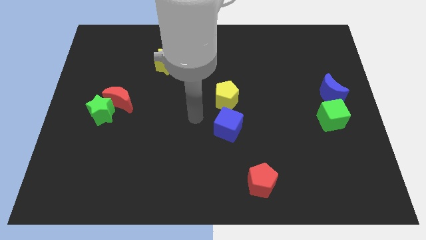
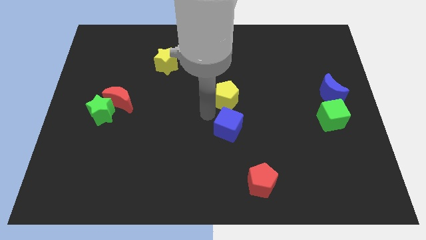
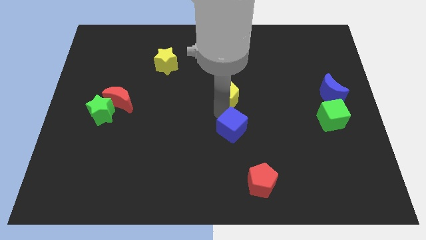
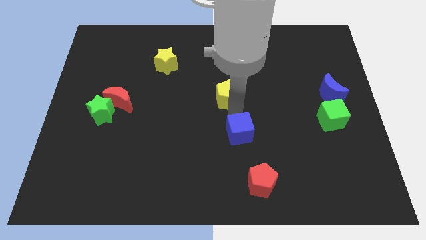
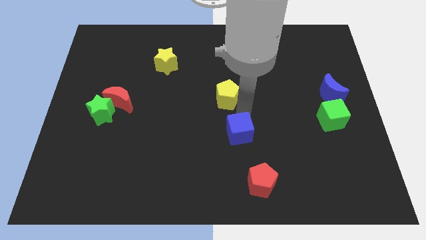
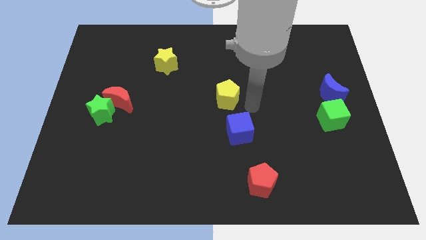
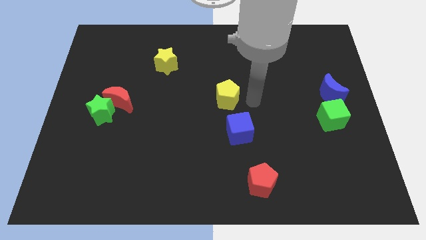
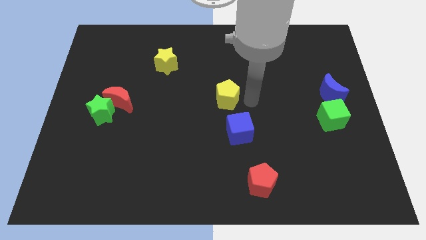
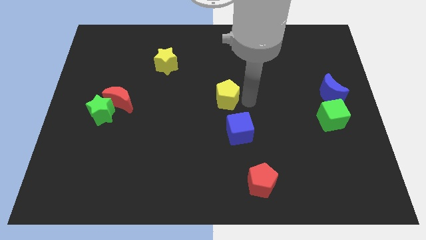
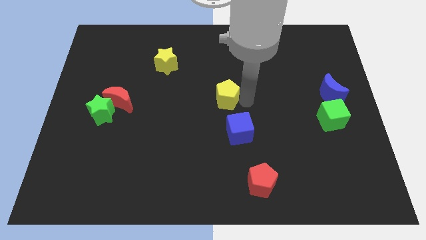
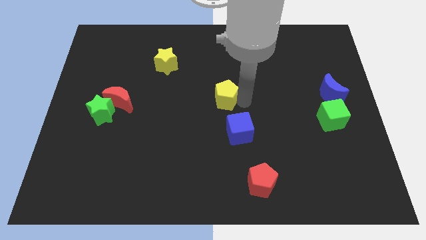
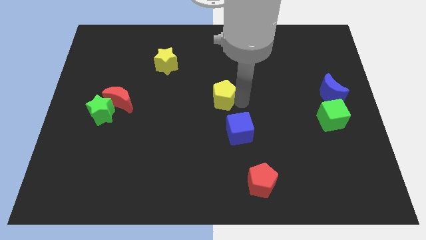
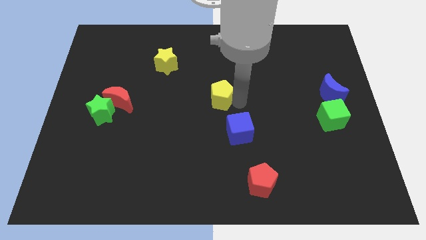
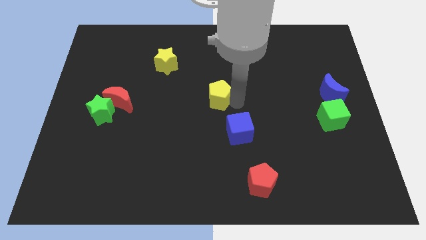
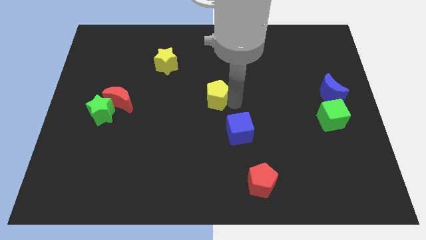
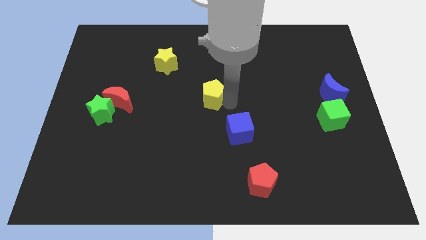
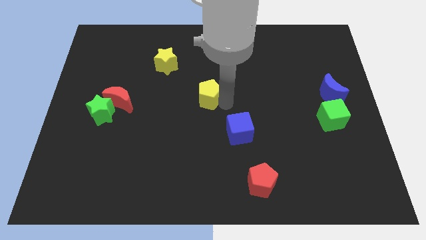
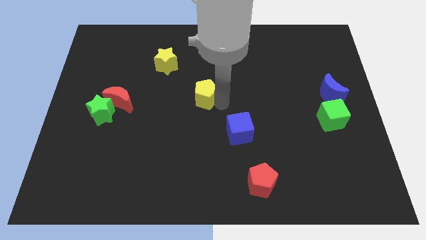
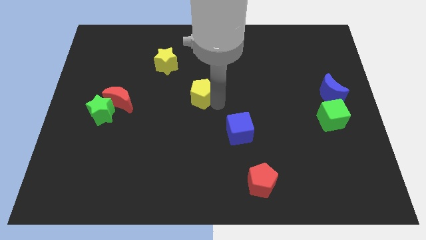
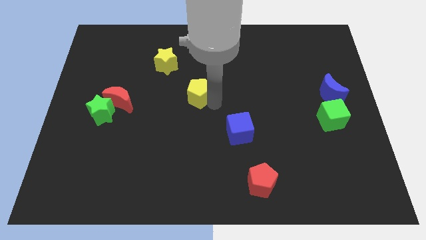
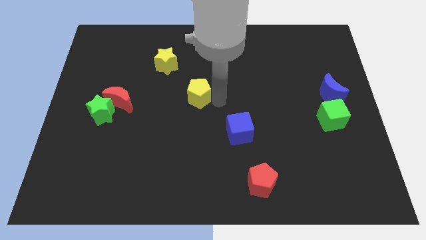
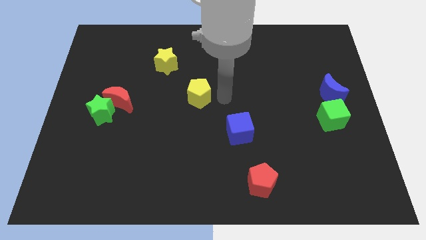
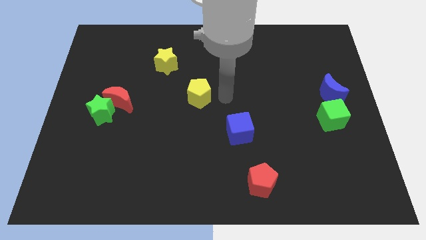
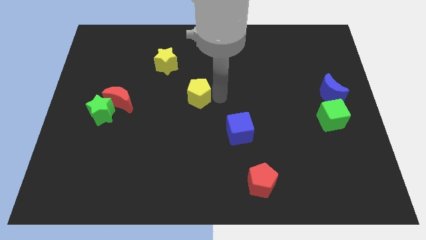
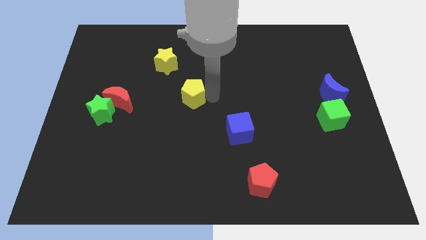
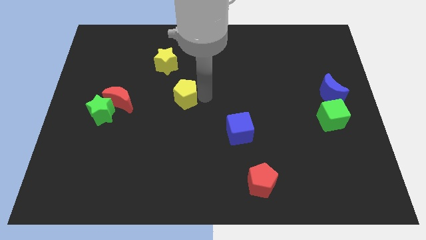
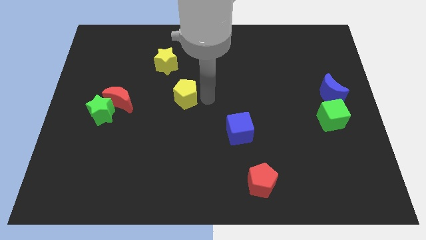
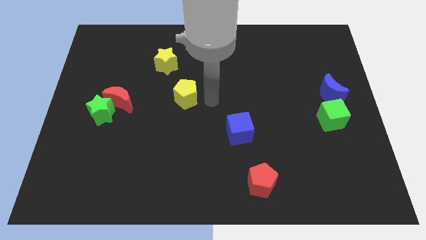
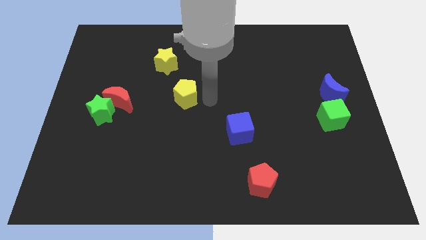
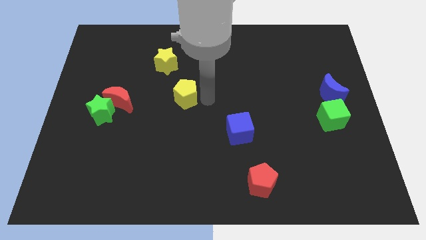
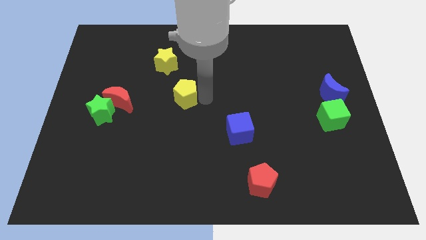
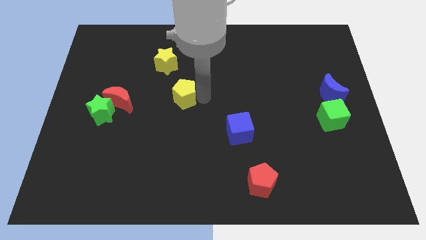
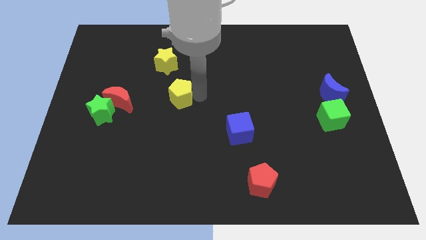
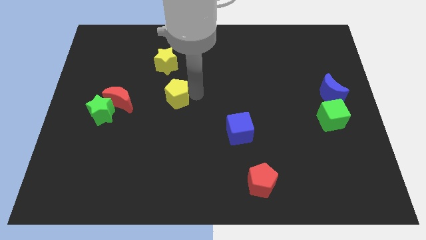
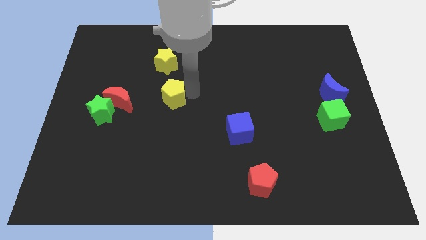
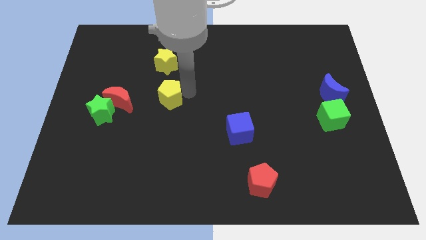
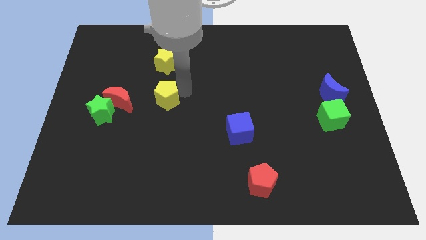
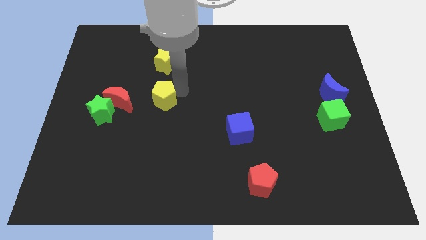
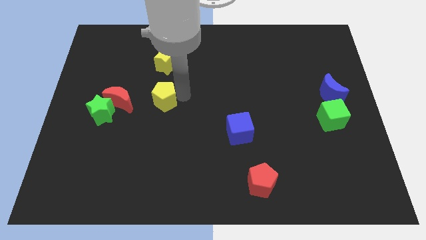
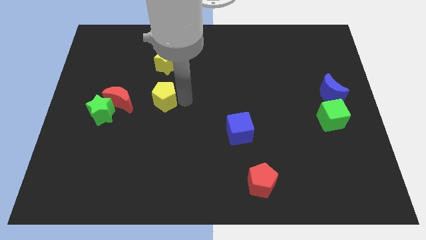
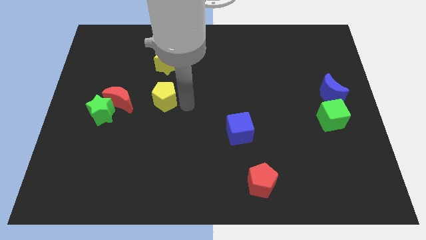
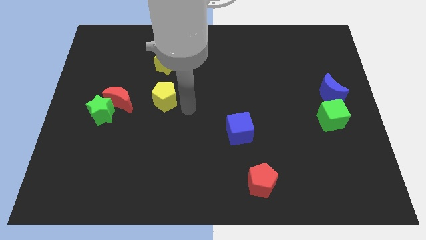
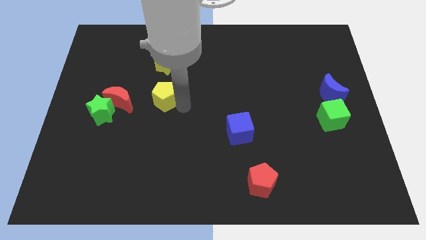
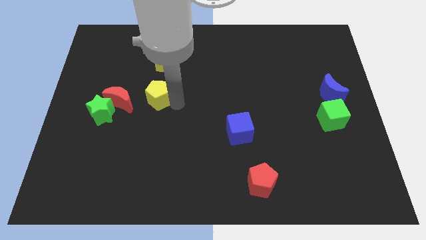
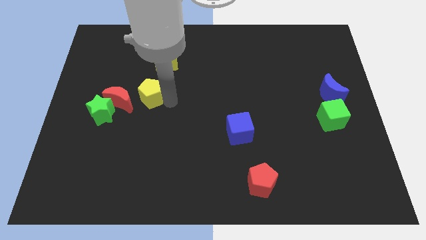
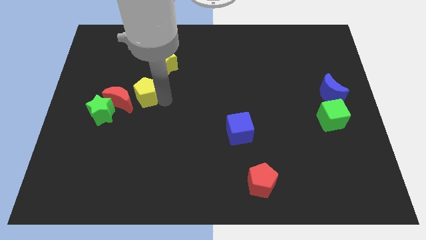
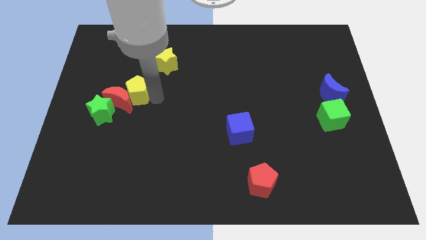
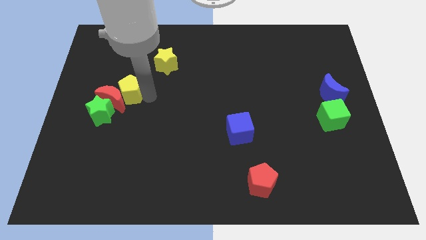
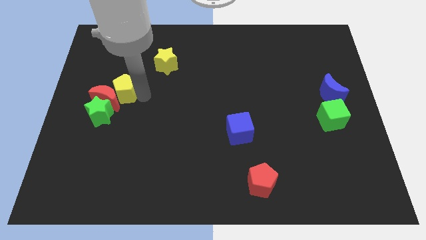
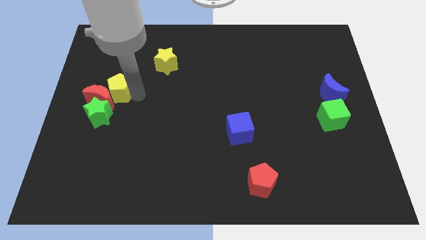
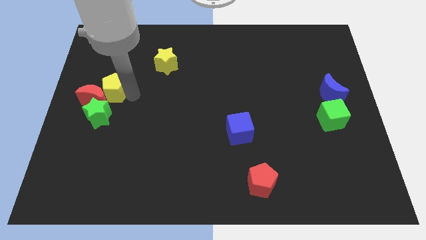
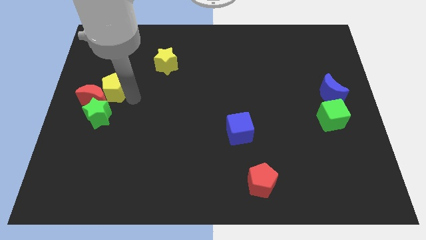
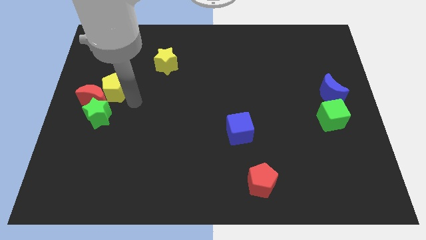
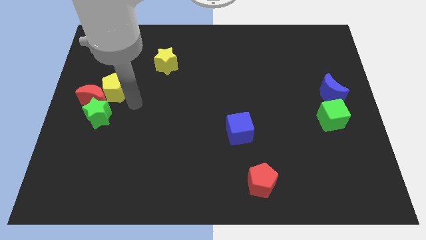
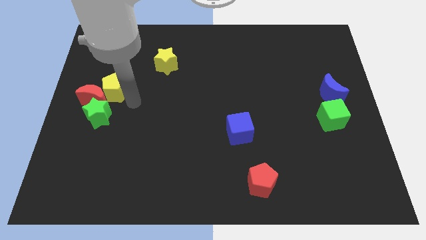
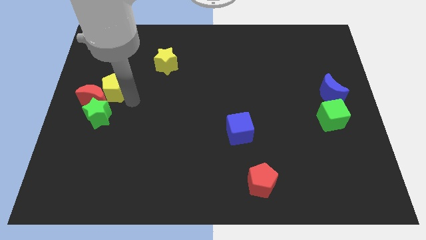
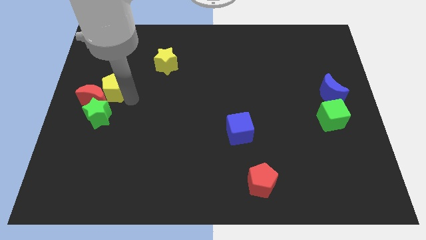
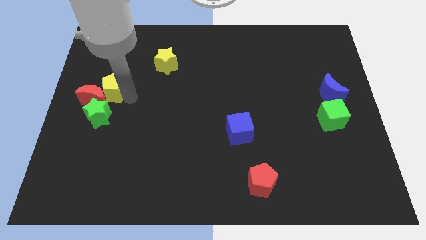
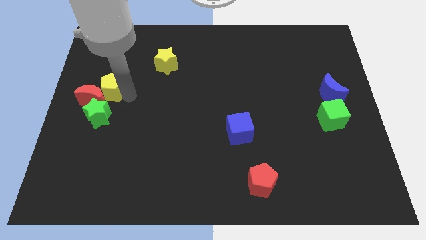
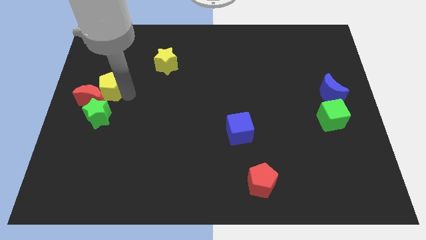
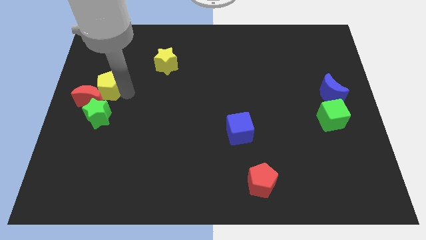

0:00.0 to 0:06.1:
slide the yellow pentagon to the left side
